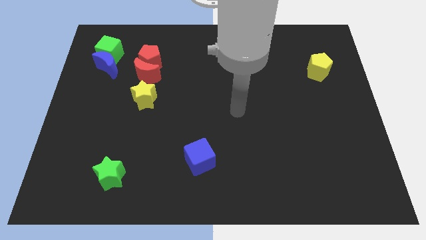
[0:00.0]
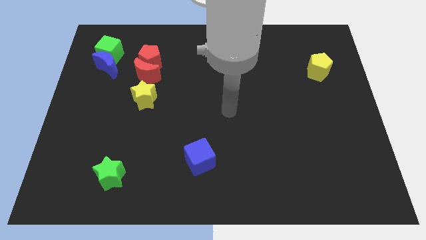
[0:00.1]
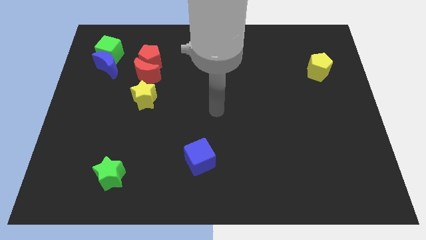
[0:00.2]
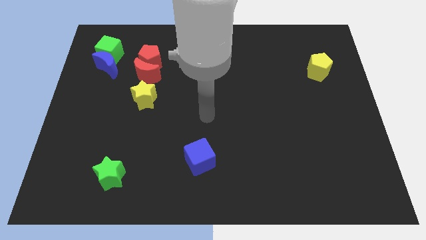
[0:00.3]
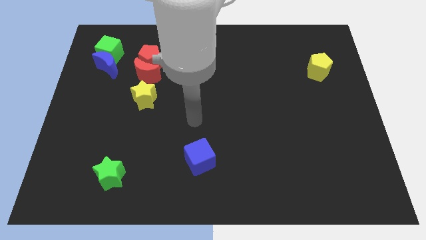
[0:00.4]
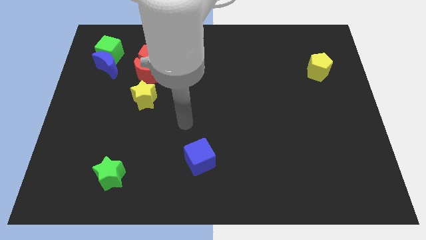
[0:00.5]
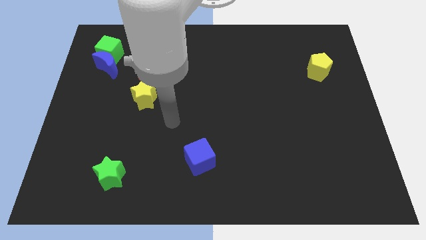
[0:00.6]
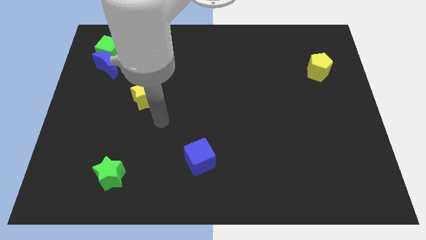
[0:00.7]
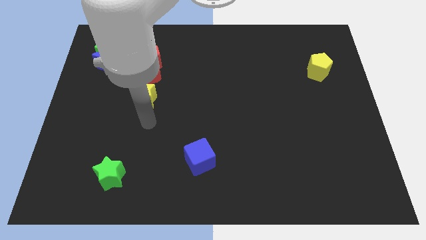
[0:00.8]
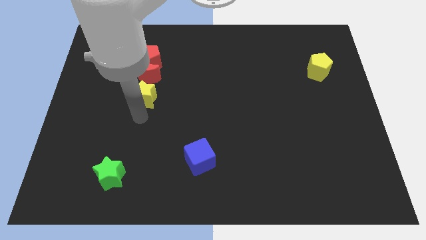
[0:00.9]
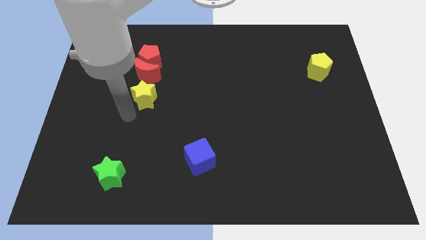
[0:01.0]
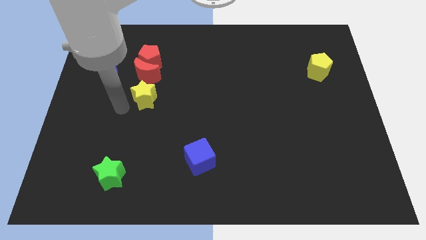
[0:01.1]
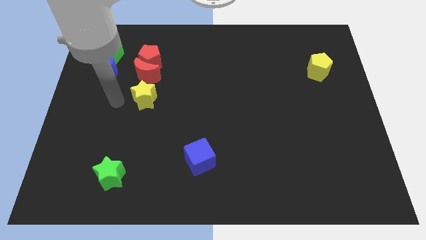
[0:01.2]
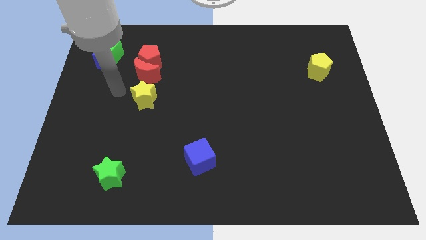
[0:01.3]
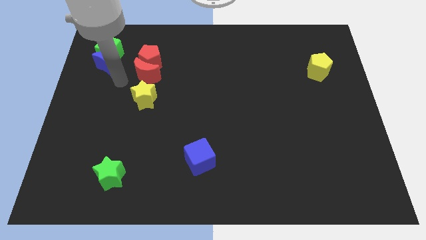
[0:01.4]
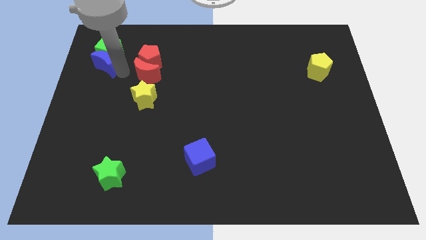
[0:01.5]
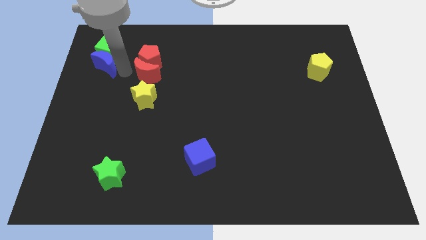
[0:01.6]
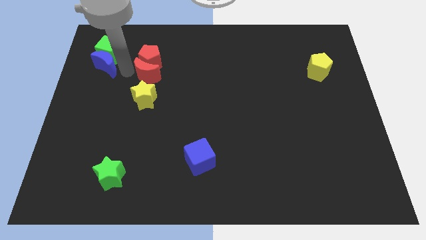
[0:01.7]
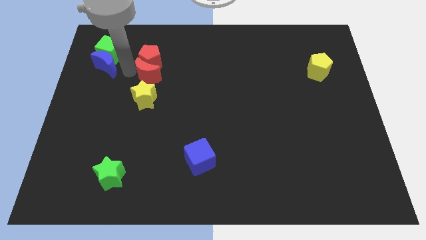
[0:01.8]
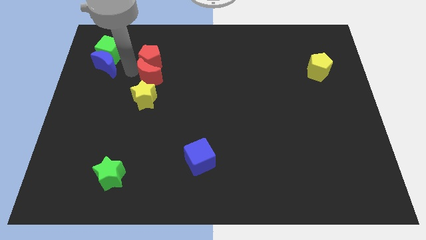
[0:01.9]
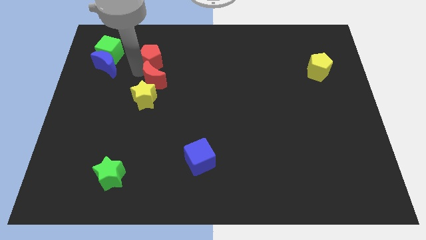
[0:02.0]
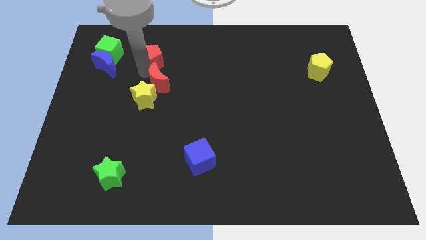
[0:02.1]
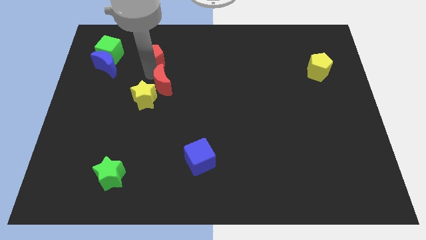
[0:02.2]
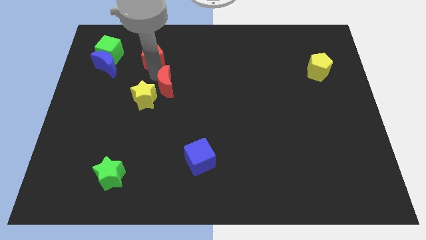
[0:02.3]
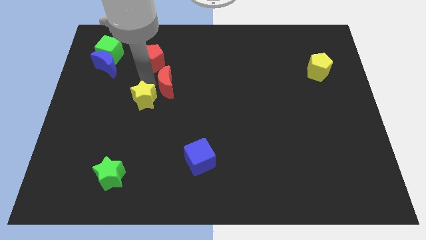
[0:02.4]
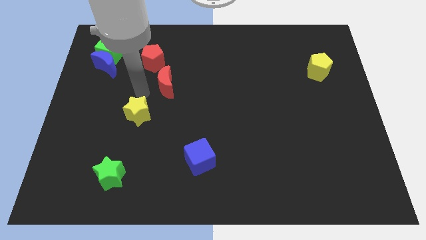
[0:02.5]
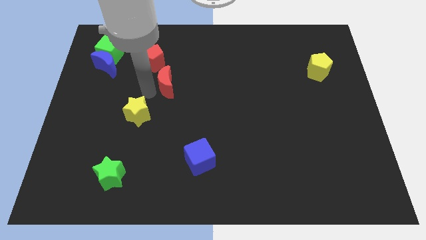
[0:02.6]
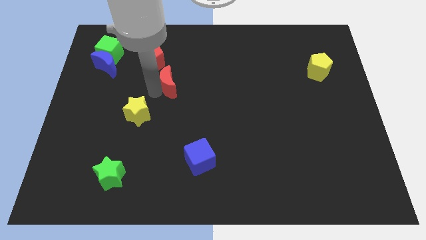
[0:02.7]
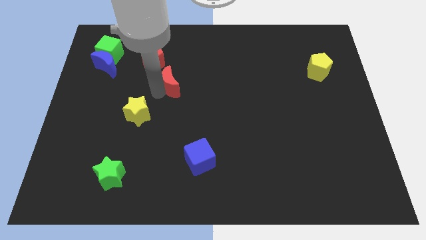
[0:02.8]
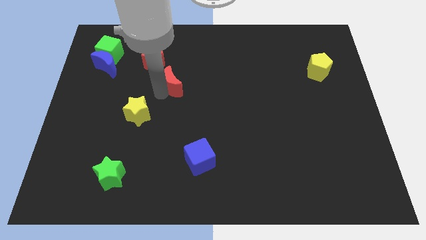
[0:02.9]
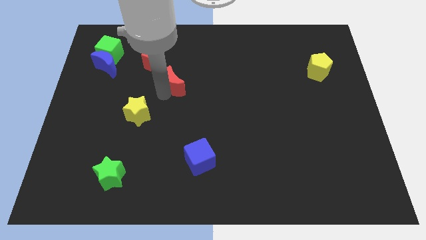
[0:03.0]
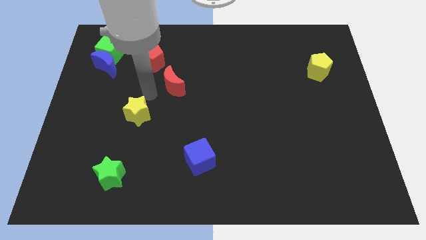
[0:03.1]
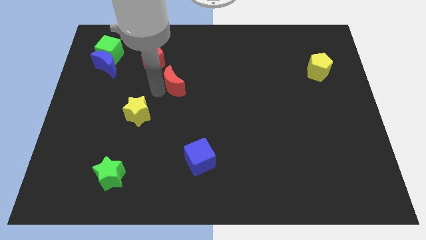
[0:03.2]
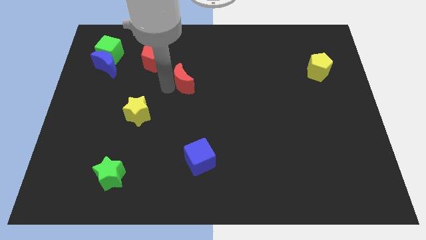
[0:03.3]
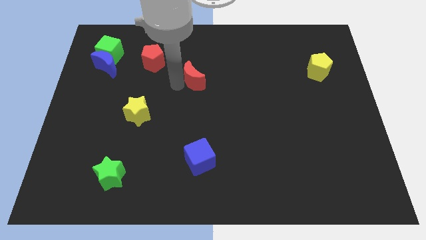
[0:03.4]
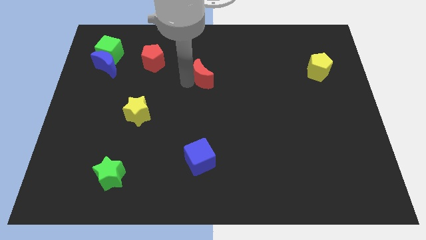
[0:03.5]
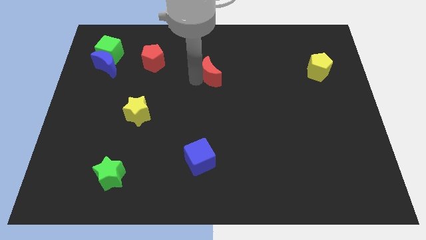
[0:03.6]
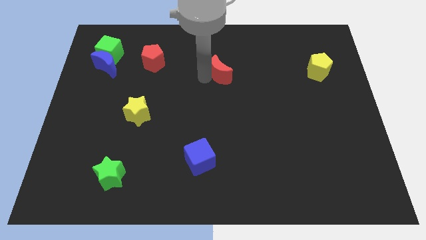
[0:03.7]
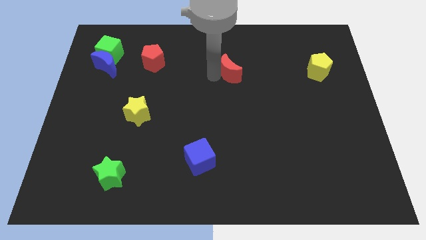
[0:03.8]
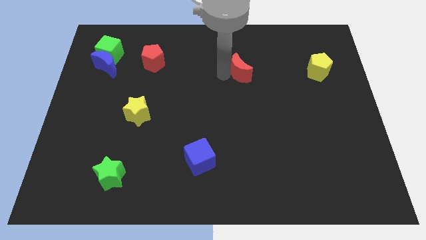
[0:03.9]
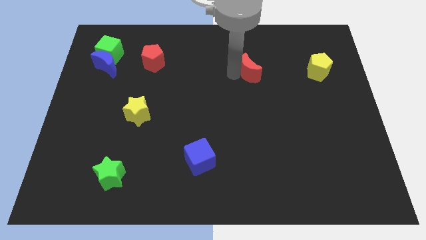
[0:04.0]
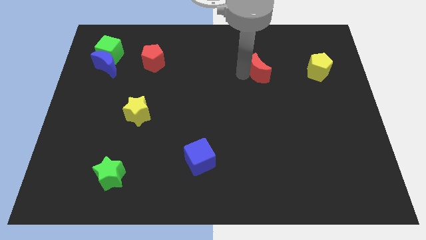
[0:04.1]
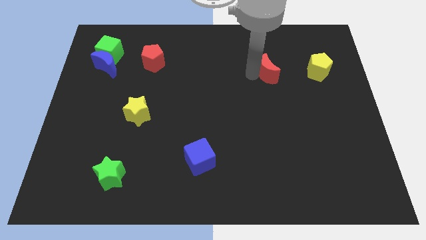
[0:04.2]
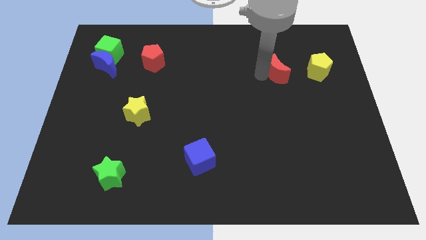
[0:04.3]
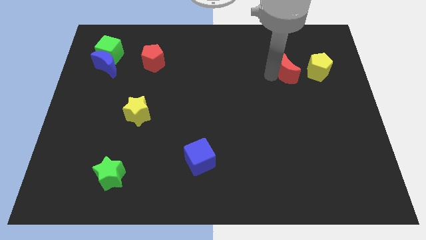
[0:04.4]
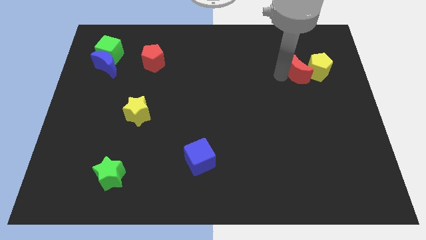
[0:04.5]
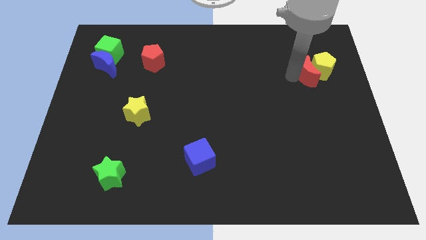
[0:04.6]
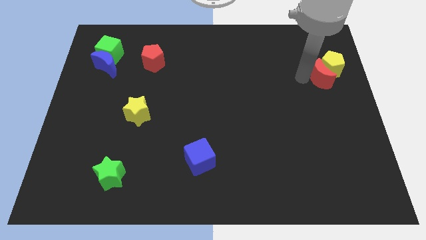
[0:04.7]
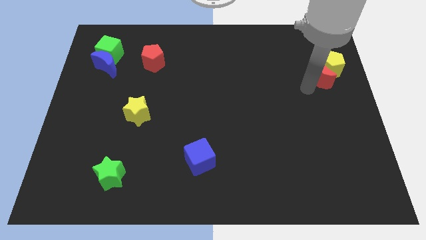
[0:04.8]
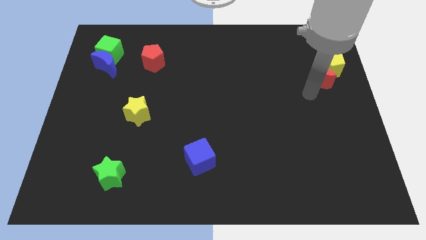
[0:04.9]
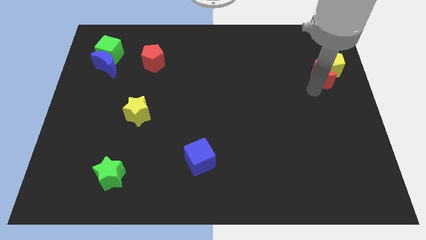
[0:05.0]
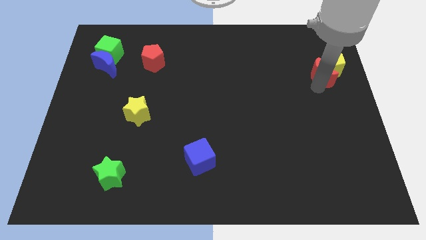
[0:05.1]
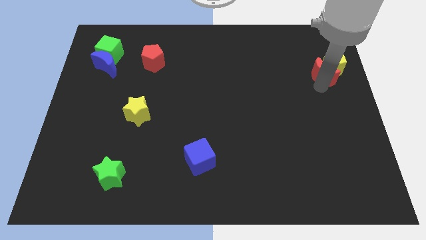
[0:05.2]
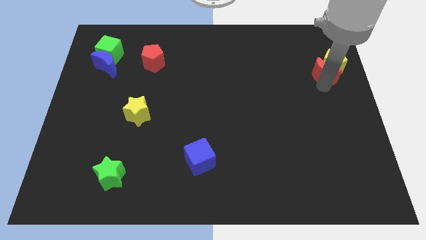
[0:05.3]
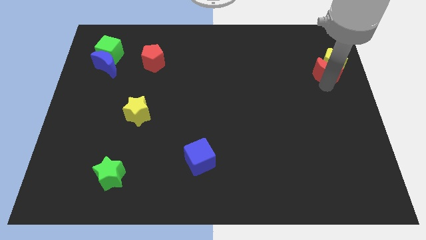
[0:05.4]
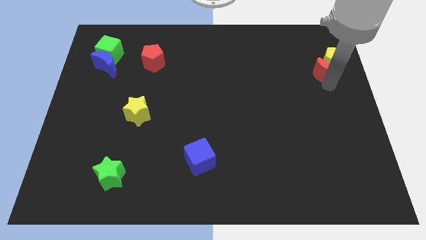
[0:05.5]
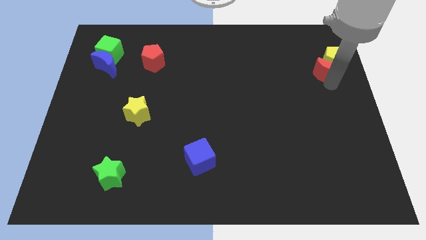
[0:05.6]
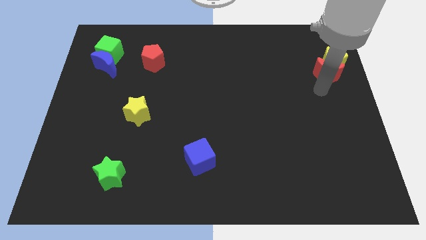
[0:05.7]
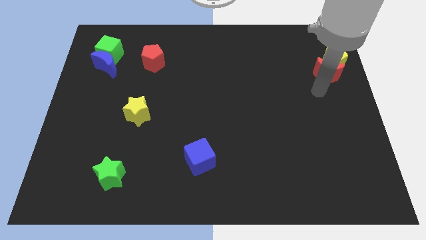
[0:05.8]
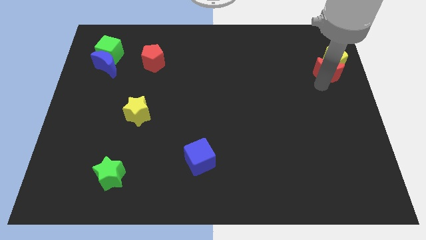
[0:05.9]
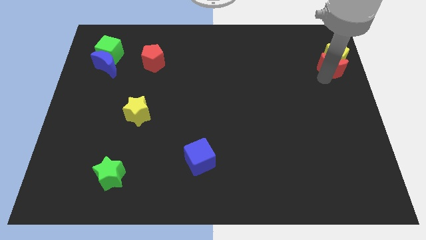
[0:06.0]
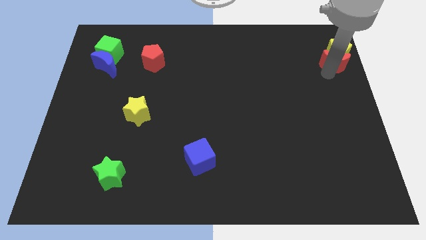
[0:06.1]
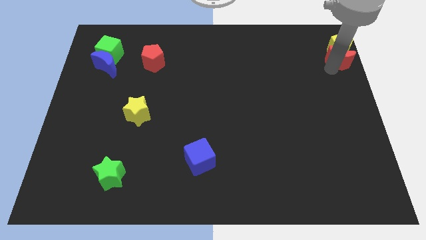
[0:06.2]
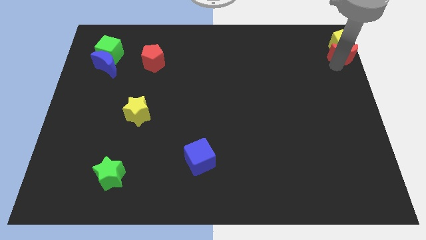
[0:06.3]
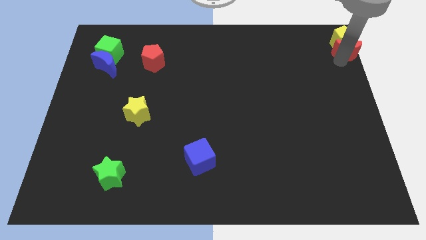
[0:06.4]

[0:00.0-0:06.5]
put the red moon to the top right of the board
